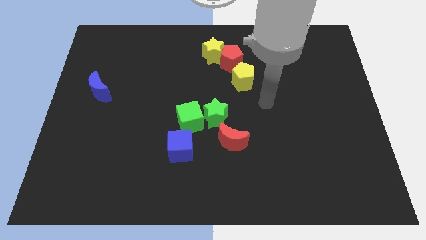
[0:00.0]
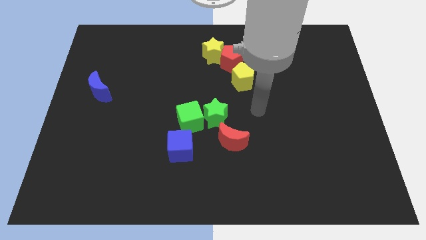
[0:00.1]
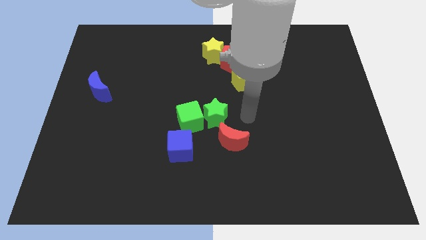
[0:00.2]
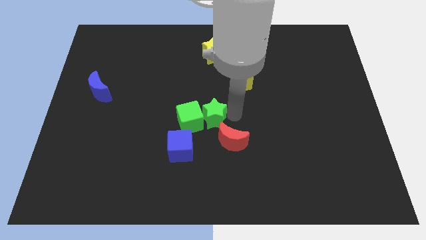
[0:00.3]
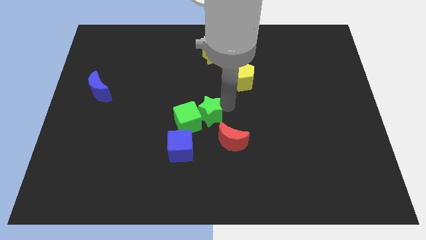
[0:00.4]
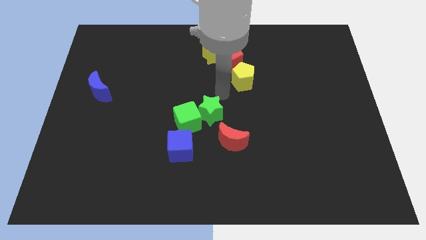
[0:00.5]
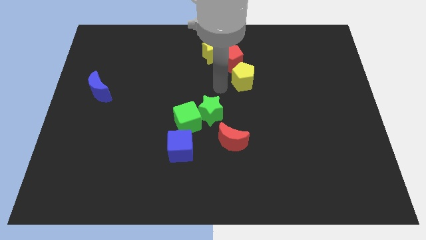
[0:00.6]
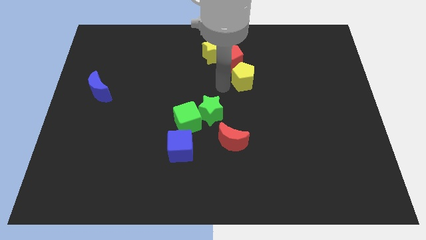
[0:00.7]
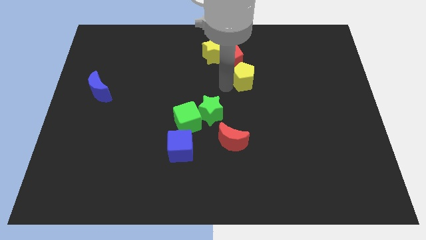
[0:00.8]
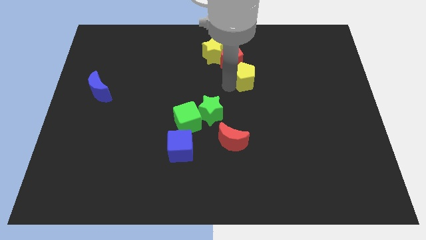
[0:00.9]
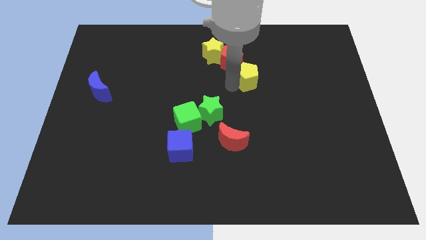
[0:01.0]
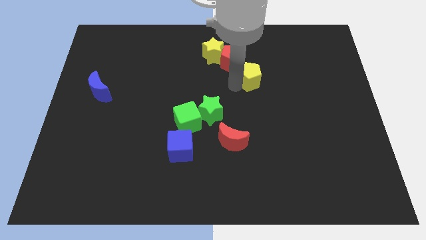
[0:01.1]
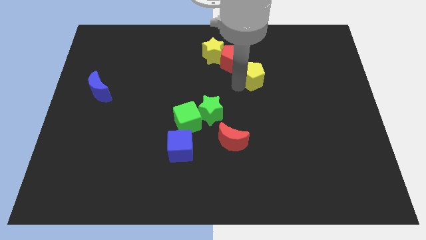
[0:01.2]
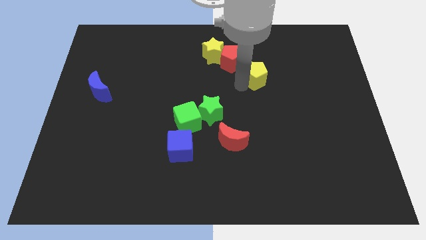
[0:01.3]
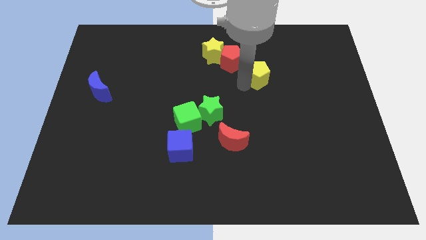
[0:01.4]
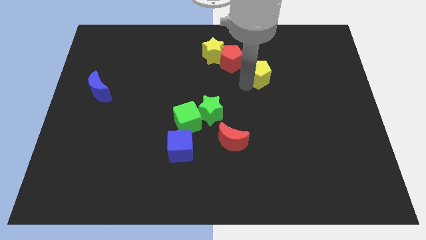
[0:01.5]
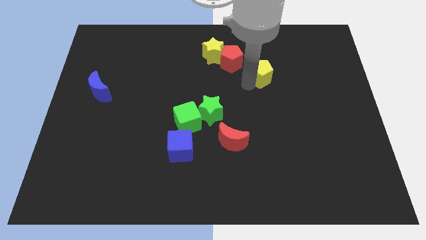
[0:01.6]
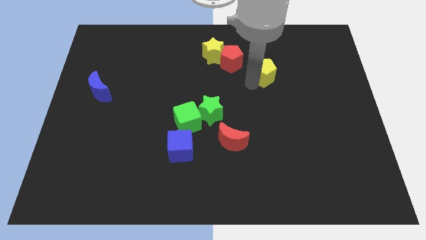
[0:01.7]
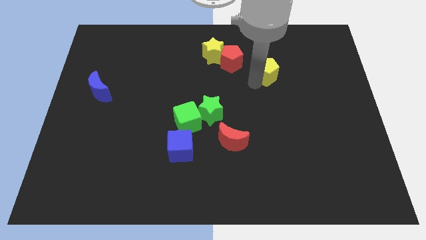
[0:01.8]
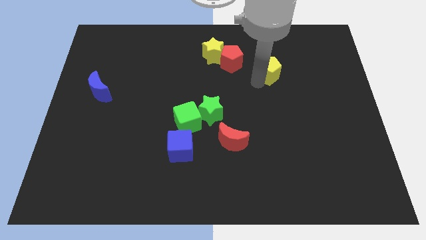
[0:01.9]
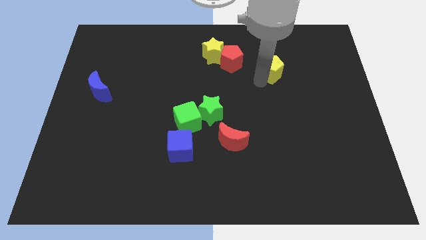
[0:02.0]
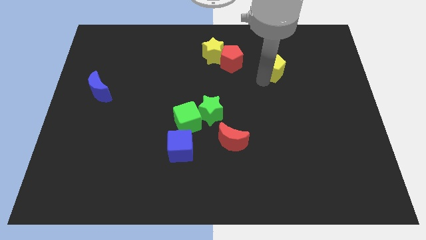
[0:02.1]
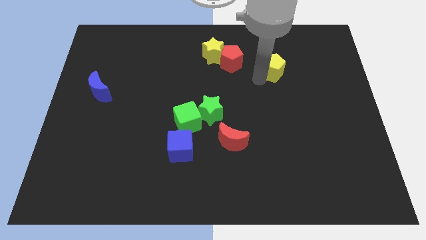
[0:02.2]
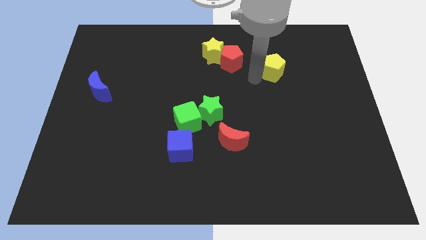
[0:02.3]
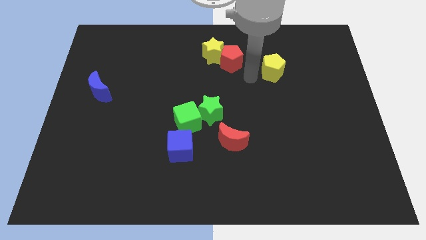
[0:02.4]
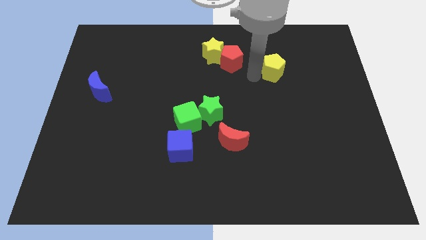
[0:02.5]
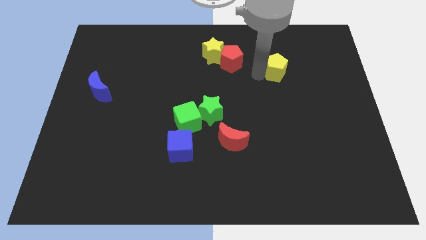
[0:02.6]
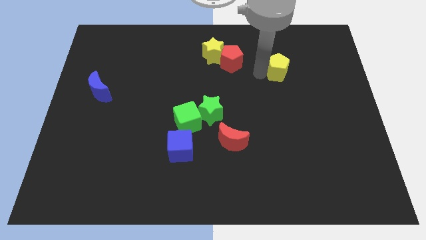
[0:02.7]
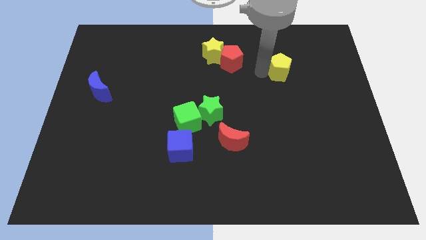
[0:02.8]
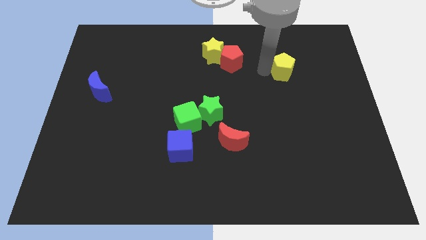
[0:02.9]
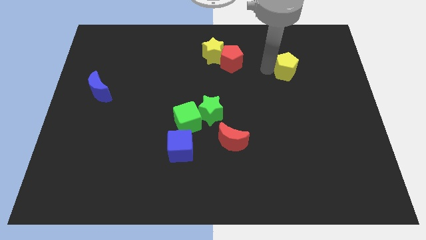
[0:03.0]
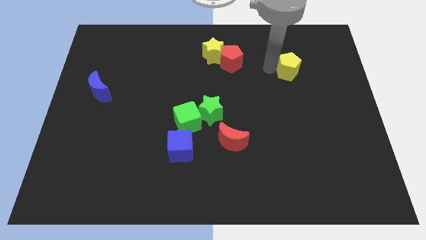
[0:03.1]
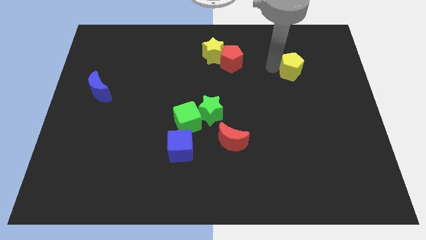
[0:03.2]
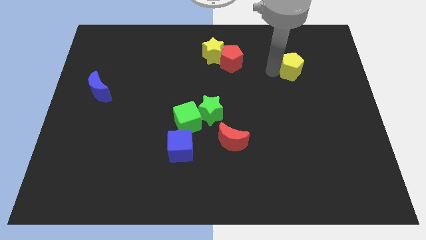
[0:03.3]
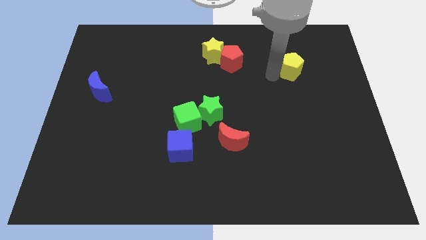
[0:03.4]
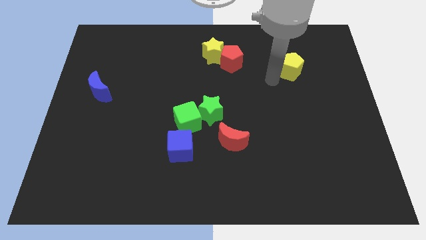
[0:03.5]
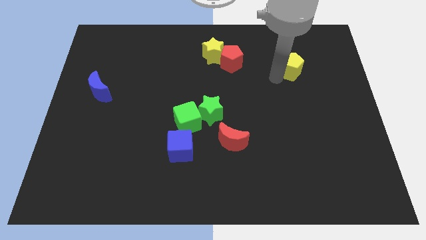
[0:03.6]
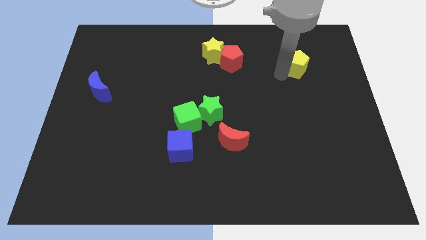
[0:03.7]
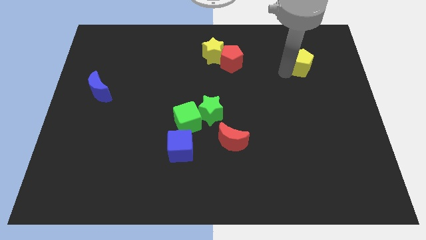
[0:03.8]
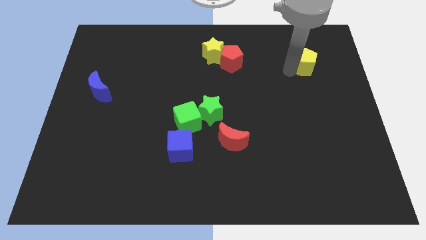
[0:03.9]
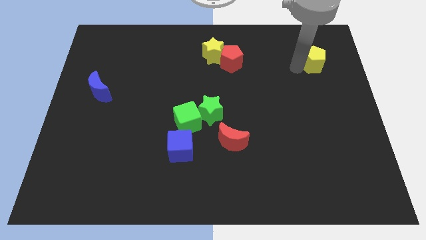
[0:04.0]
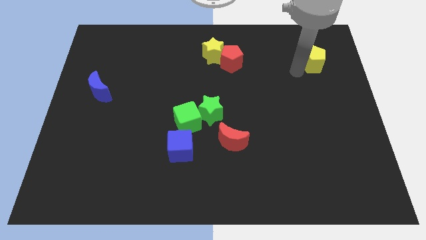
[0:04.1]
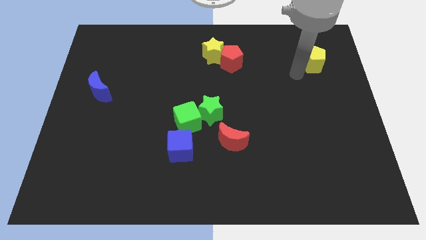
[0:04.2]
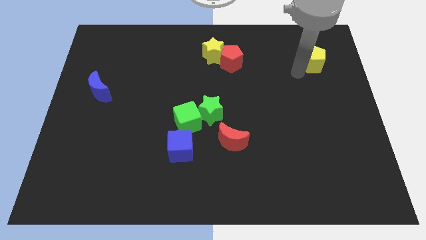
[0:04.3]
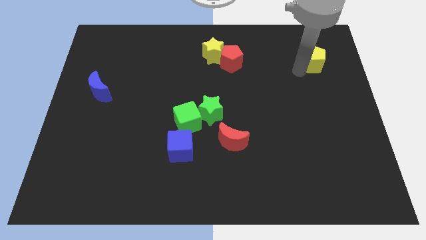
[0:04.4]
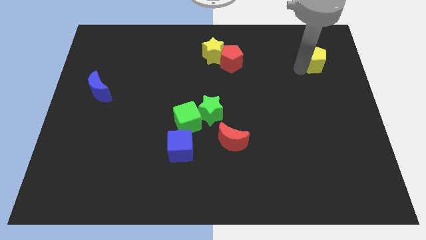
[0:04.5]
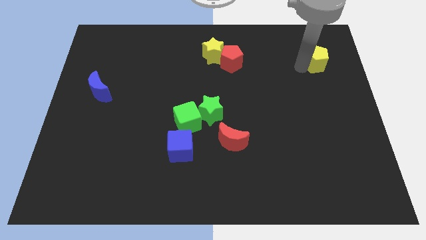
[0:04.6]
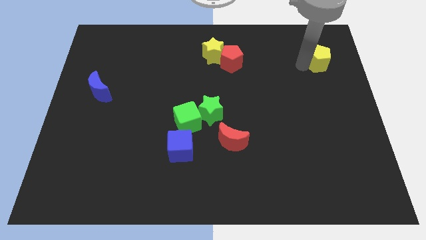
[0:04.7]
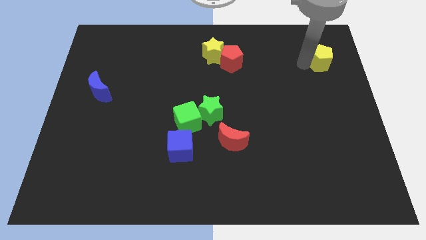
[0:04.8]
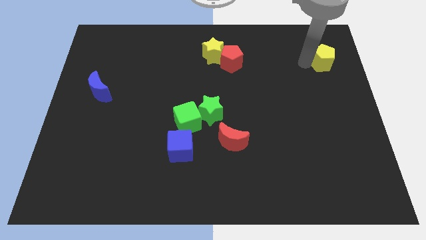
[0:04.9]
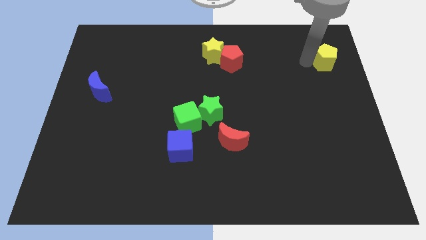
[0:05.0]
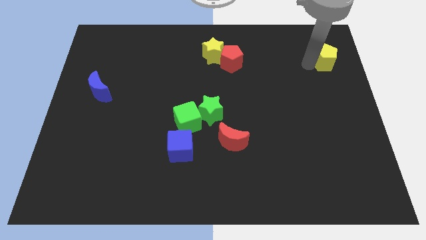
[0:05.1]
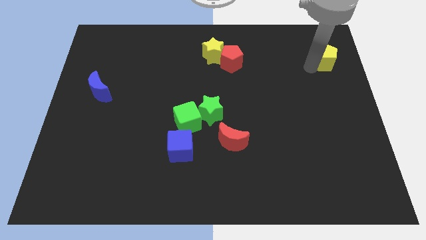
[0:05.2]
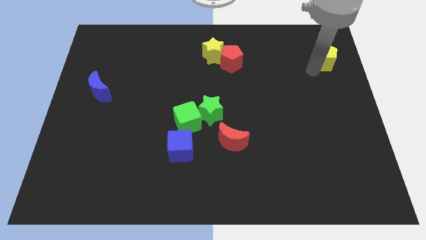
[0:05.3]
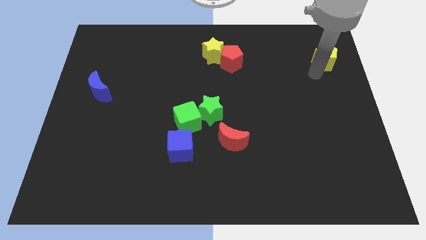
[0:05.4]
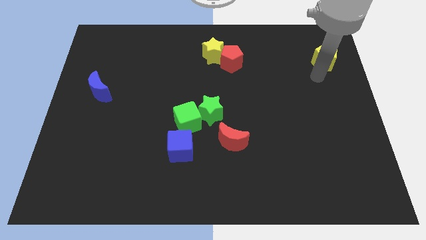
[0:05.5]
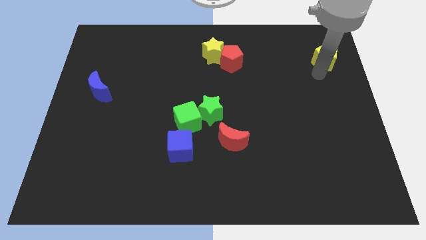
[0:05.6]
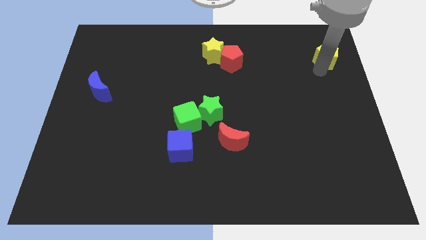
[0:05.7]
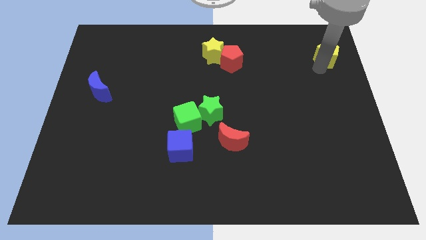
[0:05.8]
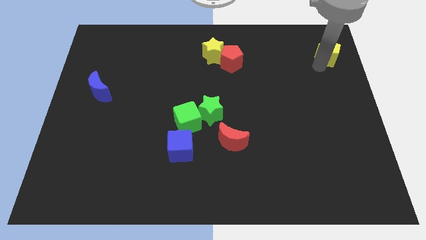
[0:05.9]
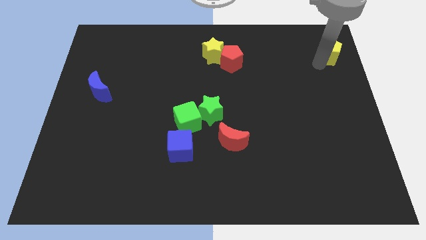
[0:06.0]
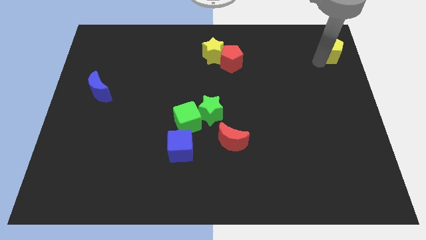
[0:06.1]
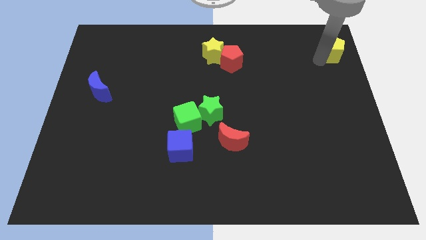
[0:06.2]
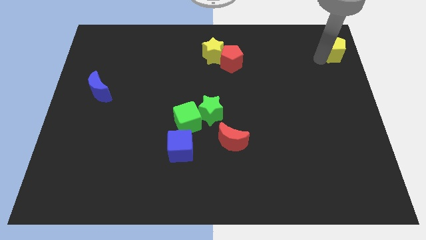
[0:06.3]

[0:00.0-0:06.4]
push the yellow pentagon to the top right corner

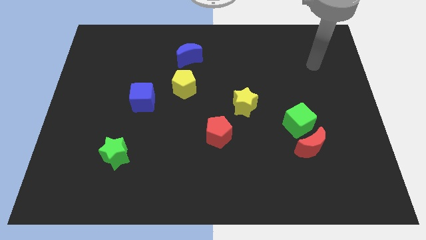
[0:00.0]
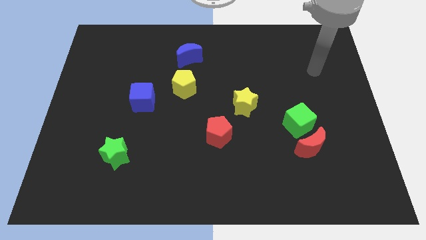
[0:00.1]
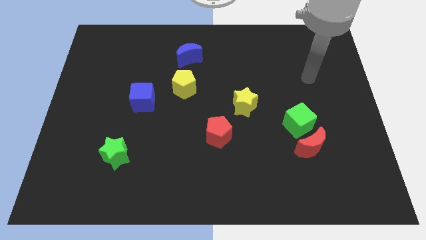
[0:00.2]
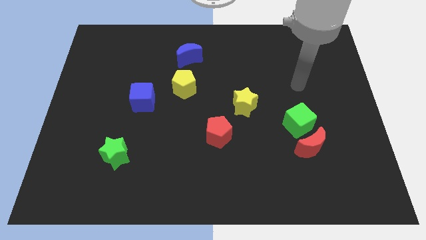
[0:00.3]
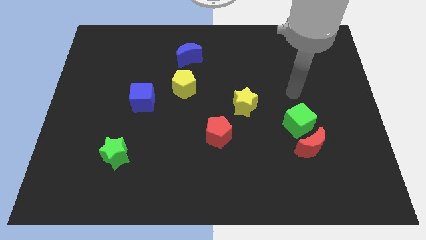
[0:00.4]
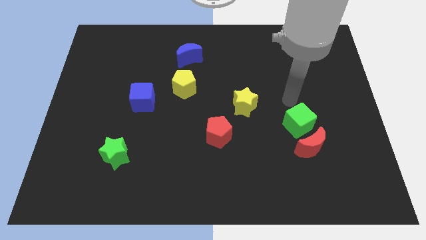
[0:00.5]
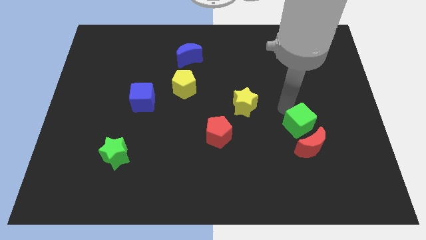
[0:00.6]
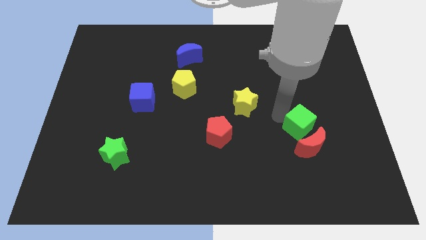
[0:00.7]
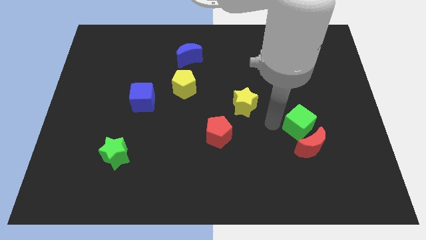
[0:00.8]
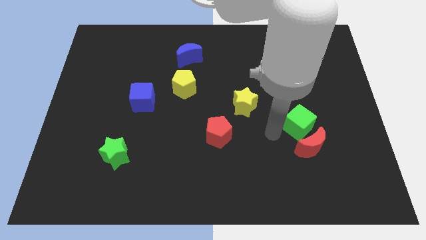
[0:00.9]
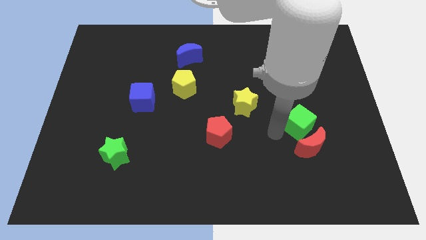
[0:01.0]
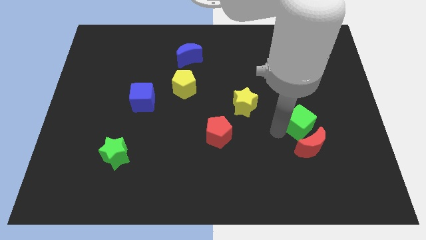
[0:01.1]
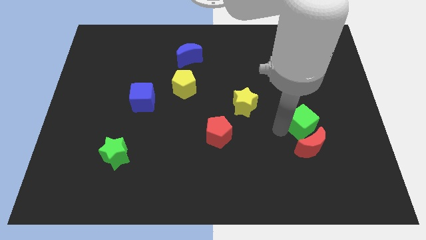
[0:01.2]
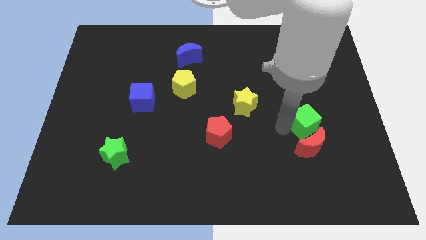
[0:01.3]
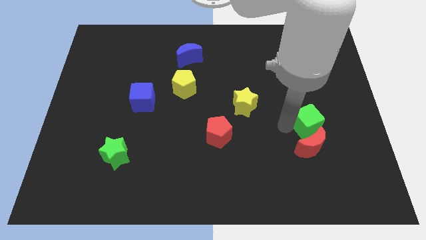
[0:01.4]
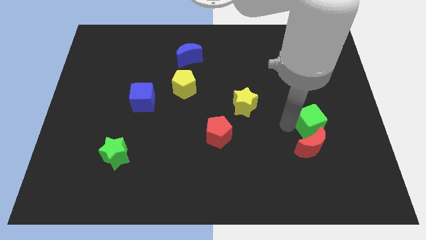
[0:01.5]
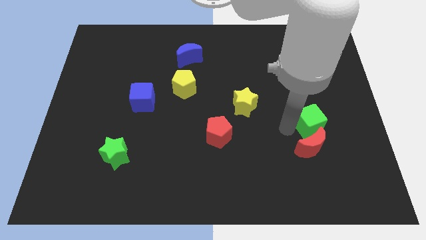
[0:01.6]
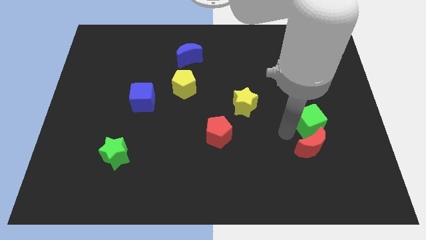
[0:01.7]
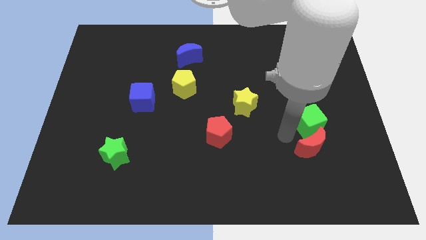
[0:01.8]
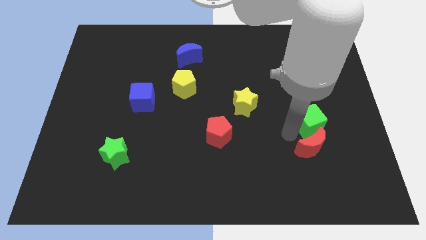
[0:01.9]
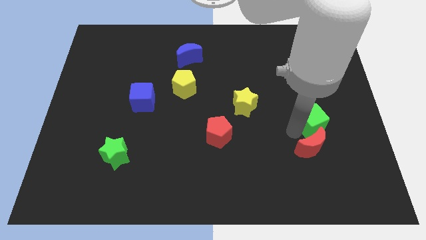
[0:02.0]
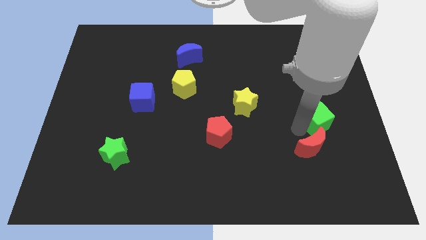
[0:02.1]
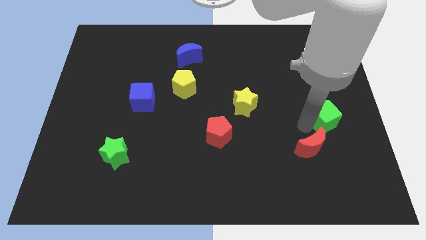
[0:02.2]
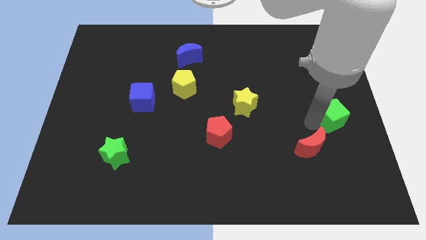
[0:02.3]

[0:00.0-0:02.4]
put the green cube to the right side
